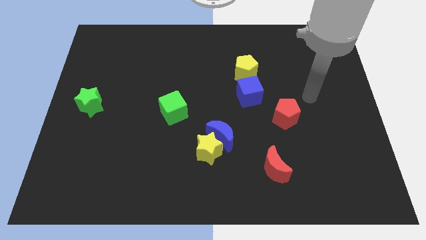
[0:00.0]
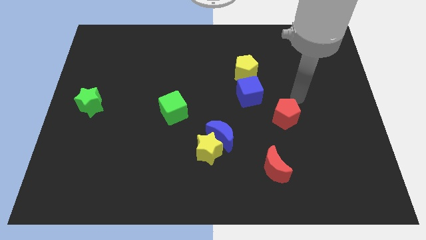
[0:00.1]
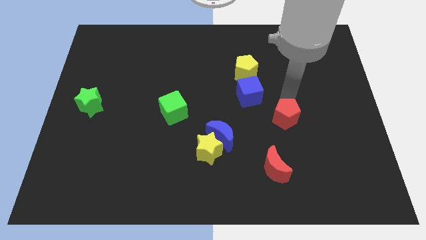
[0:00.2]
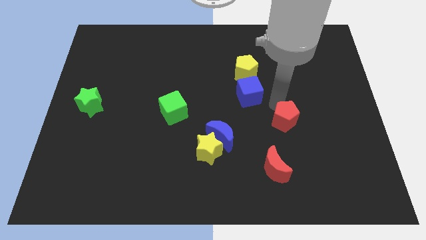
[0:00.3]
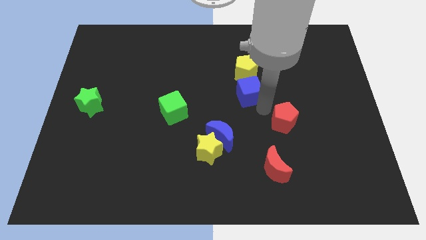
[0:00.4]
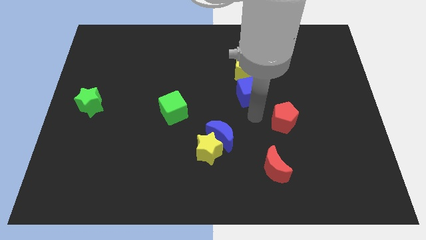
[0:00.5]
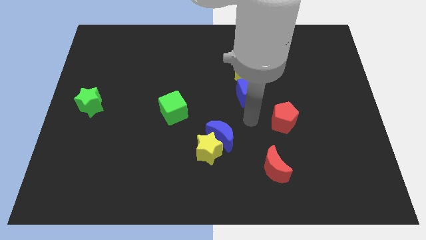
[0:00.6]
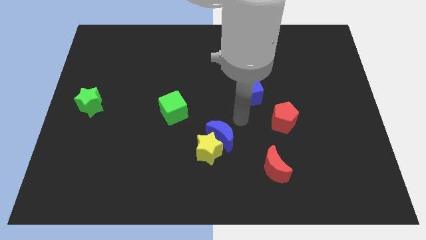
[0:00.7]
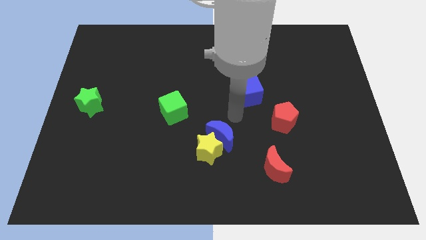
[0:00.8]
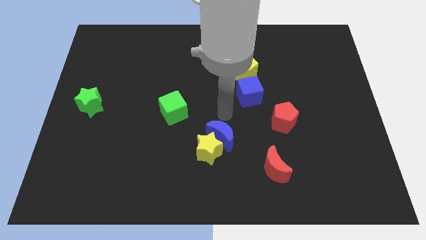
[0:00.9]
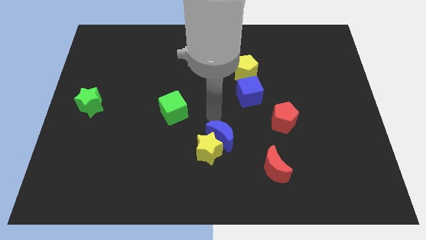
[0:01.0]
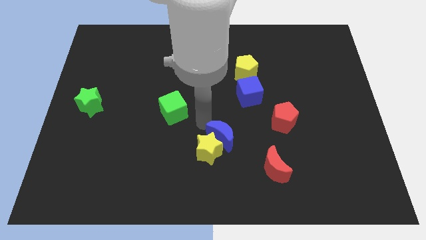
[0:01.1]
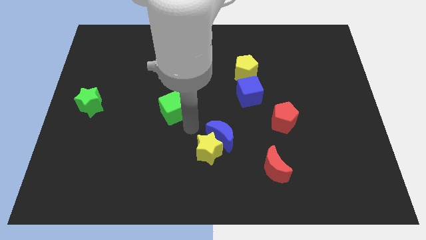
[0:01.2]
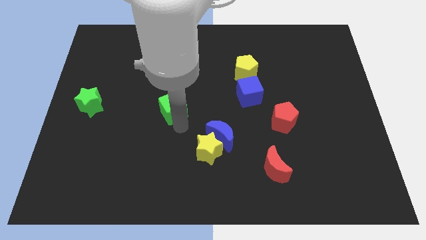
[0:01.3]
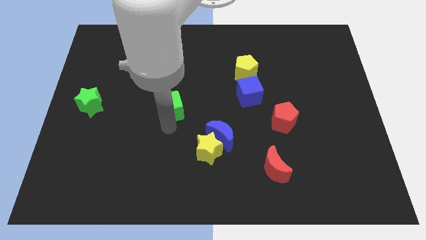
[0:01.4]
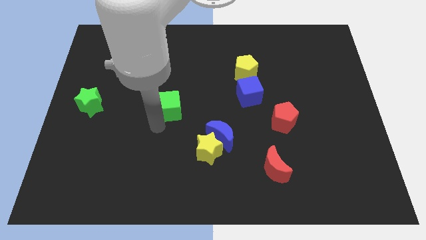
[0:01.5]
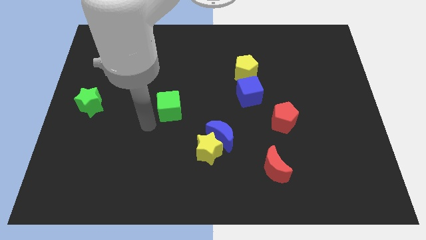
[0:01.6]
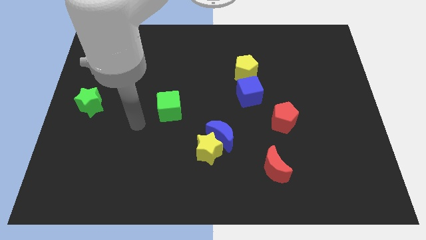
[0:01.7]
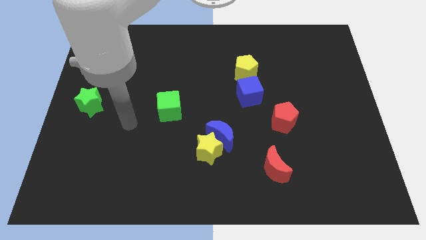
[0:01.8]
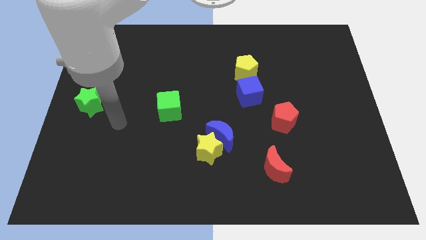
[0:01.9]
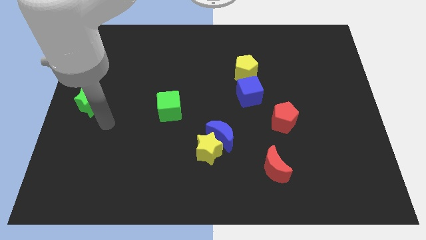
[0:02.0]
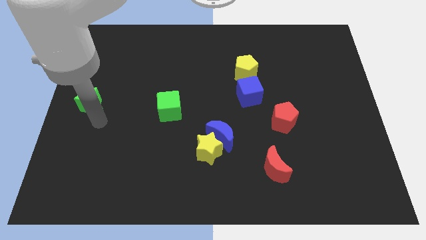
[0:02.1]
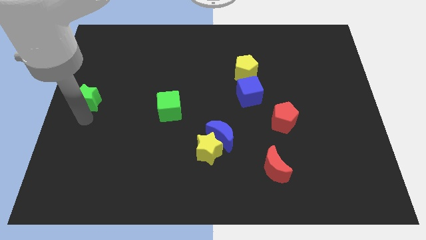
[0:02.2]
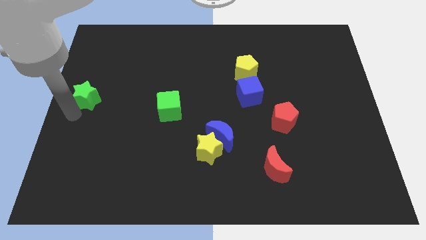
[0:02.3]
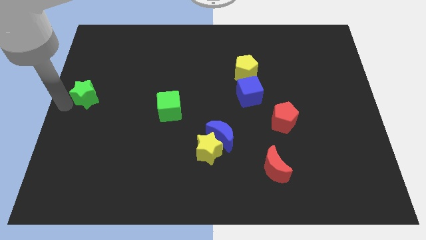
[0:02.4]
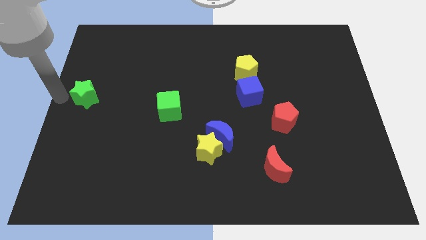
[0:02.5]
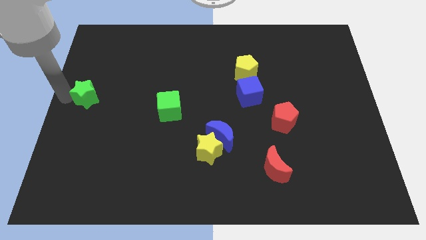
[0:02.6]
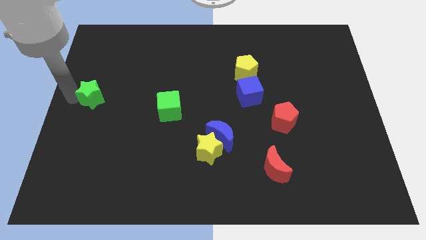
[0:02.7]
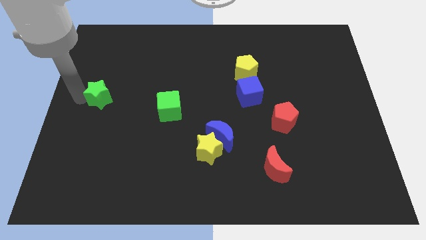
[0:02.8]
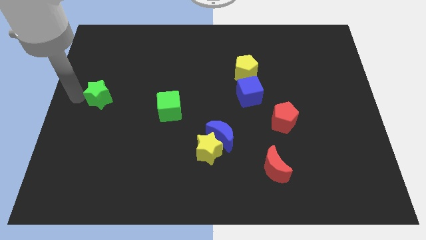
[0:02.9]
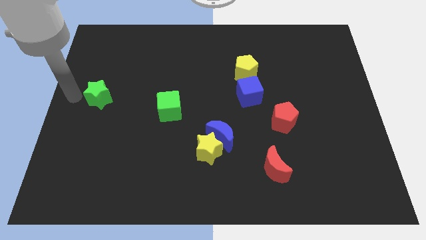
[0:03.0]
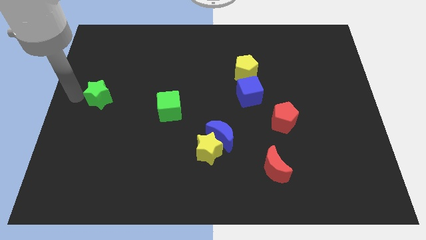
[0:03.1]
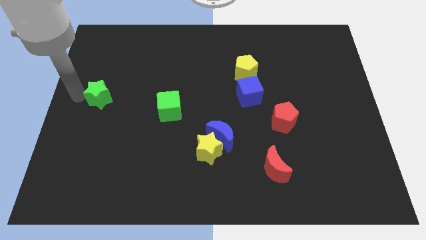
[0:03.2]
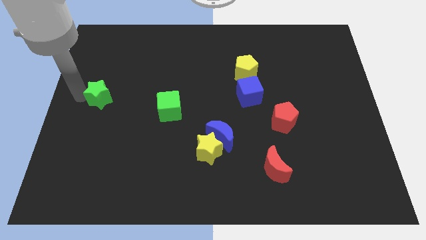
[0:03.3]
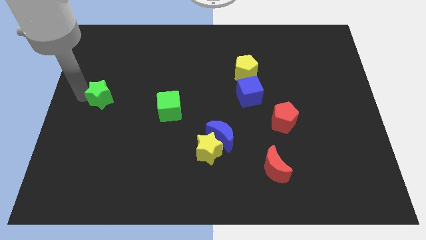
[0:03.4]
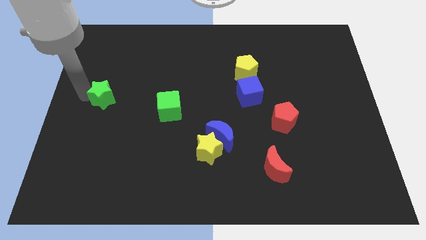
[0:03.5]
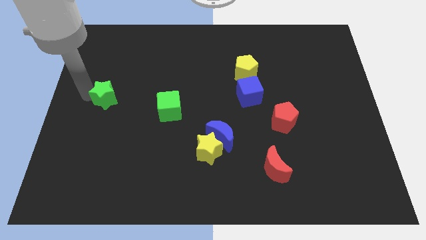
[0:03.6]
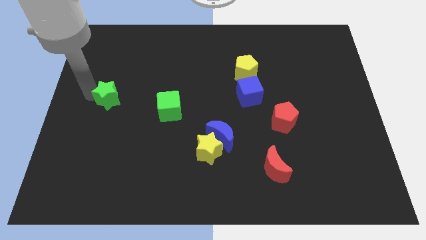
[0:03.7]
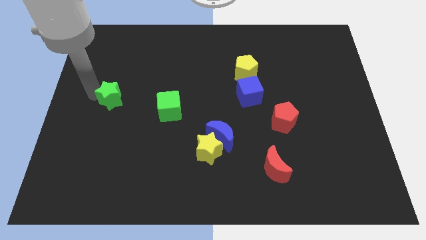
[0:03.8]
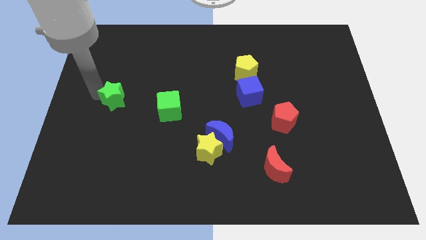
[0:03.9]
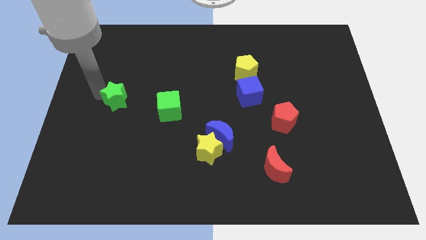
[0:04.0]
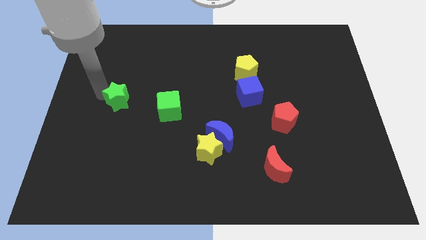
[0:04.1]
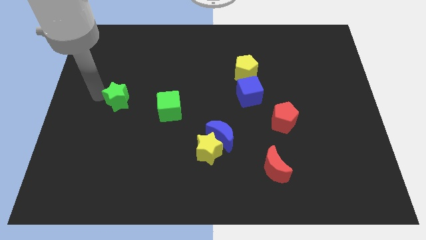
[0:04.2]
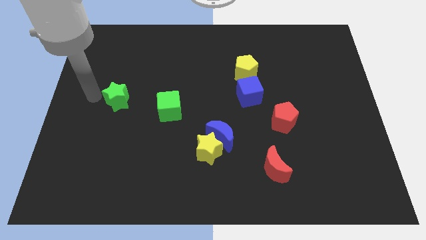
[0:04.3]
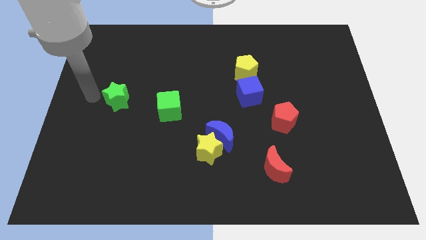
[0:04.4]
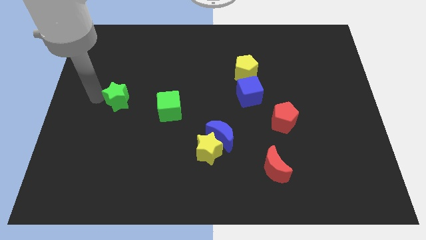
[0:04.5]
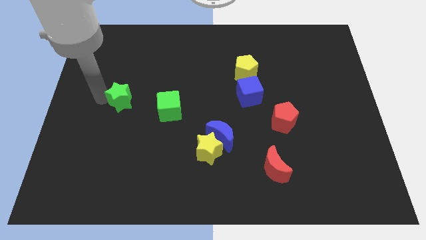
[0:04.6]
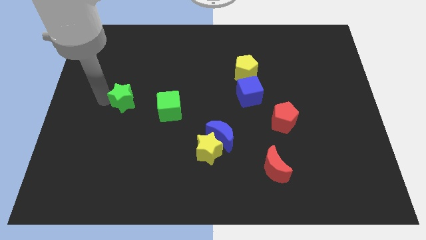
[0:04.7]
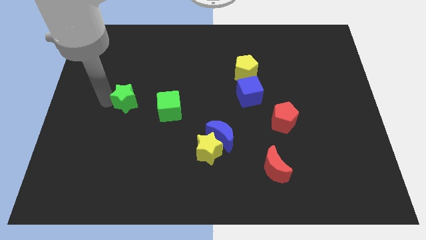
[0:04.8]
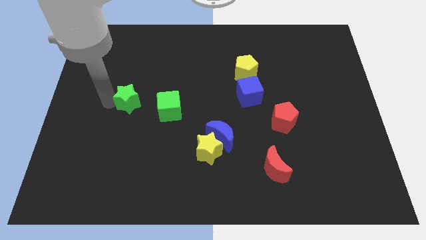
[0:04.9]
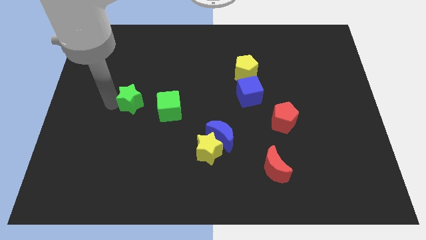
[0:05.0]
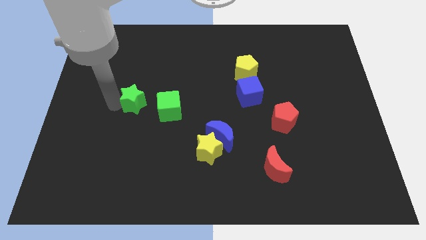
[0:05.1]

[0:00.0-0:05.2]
slide the green star to the top left of the green cube

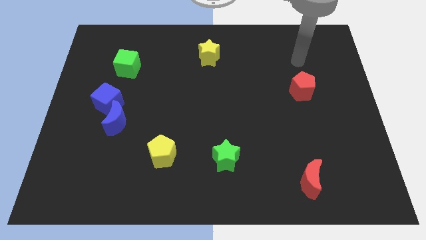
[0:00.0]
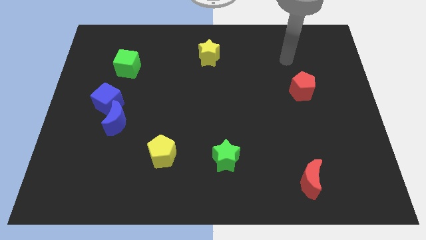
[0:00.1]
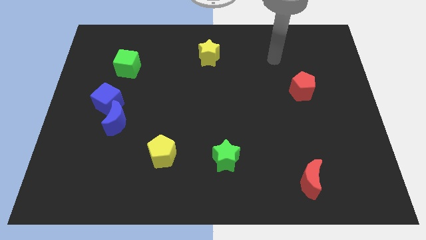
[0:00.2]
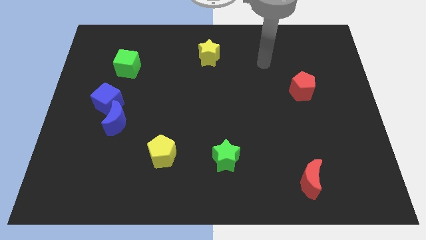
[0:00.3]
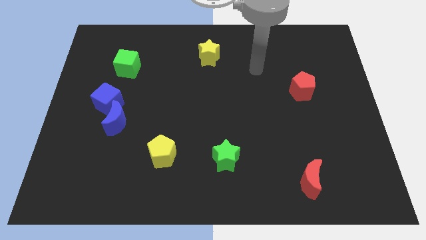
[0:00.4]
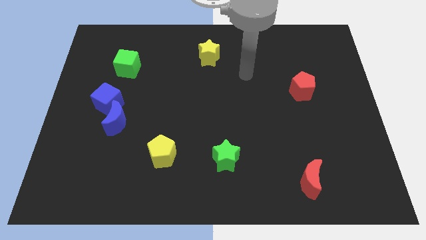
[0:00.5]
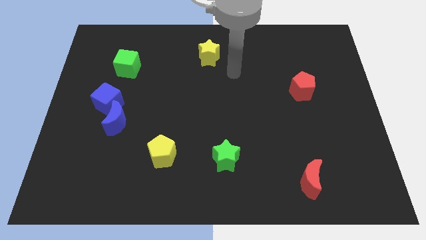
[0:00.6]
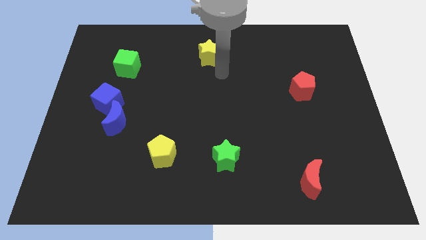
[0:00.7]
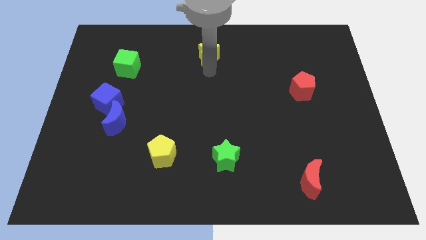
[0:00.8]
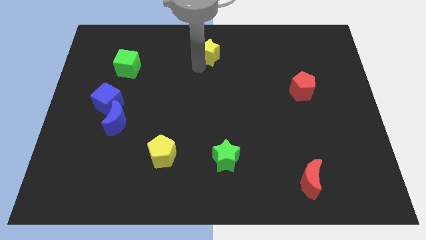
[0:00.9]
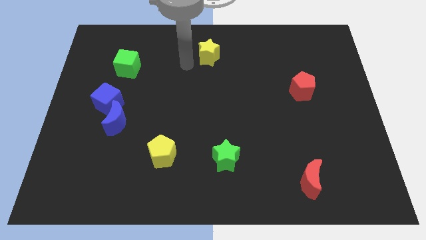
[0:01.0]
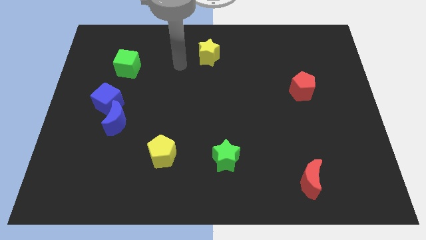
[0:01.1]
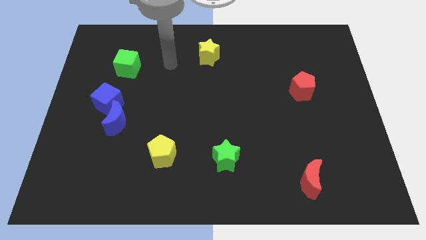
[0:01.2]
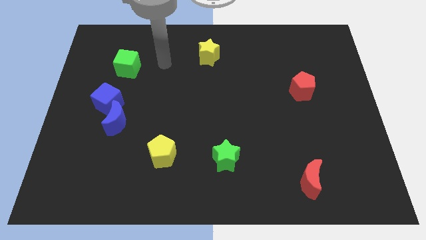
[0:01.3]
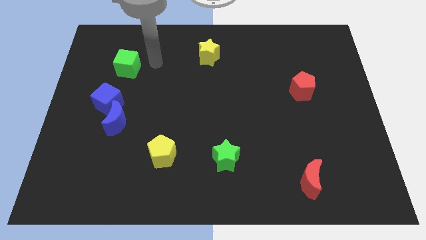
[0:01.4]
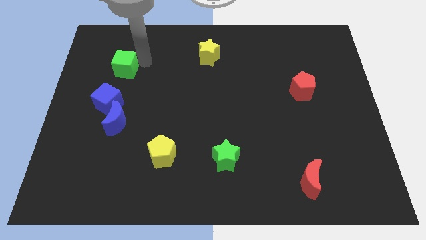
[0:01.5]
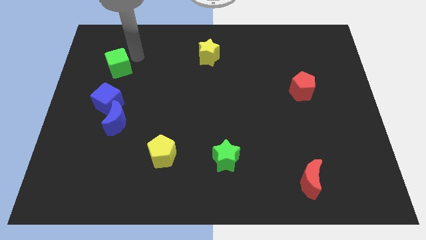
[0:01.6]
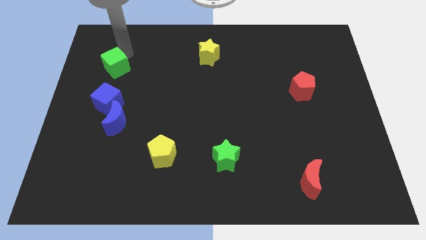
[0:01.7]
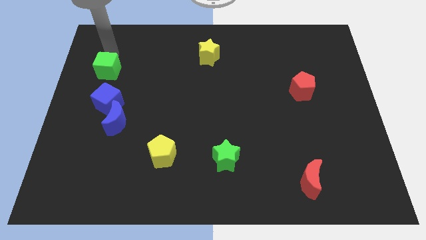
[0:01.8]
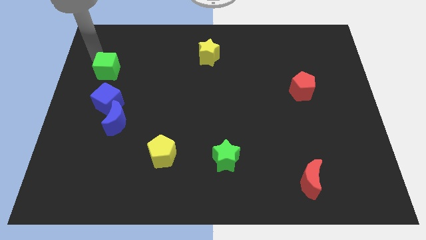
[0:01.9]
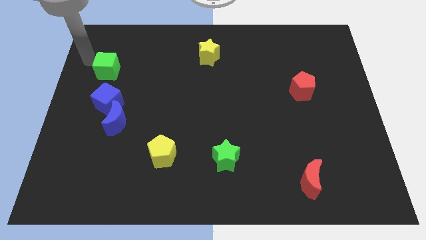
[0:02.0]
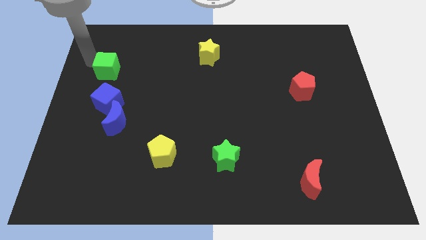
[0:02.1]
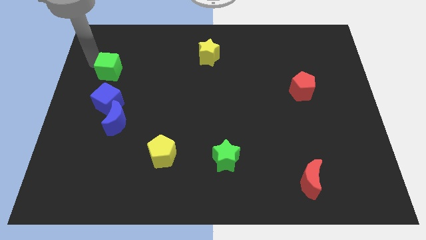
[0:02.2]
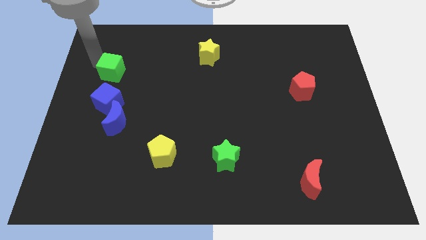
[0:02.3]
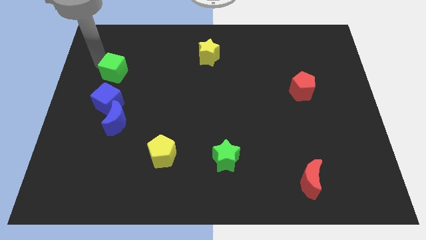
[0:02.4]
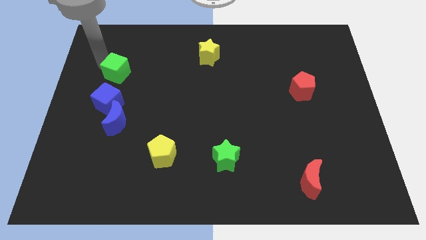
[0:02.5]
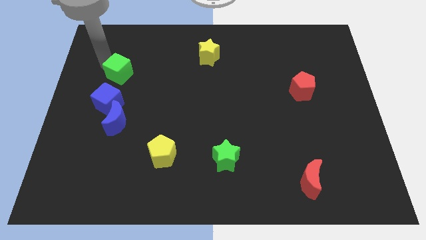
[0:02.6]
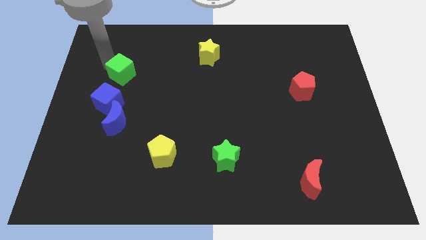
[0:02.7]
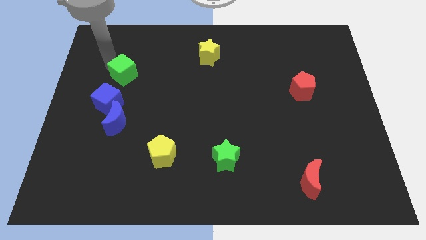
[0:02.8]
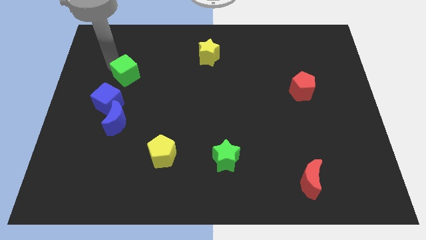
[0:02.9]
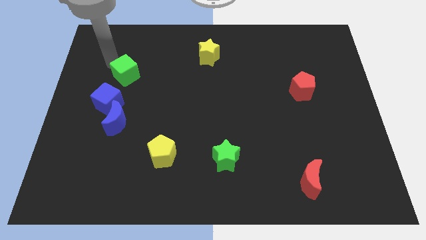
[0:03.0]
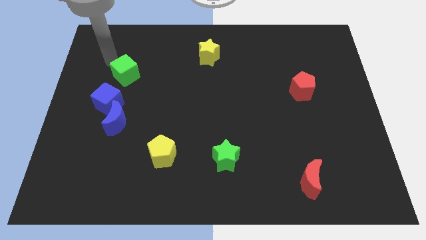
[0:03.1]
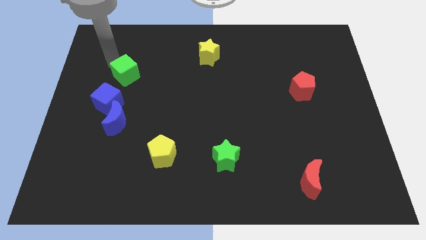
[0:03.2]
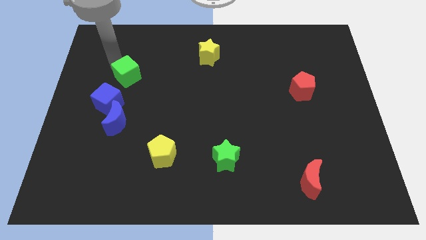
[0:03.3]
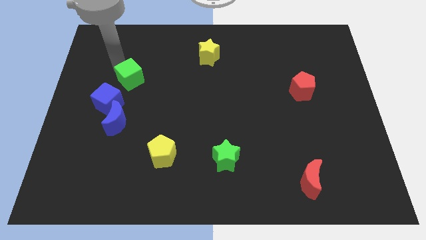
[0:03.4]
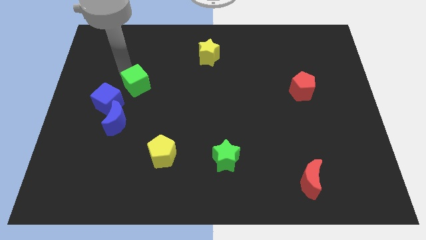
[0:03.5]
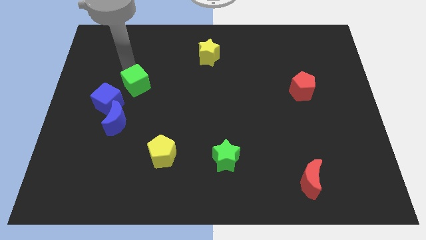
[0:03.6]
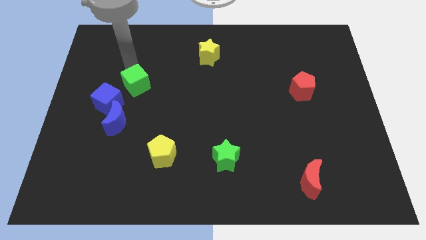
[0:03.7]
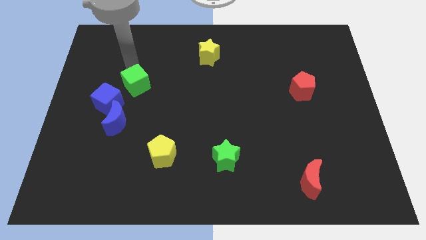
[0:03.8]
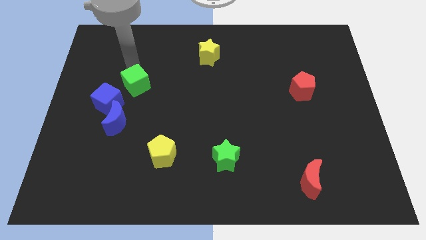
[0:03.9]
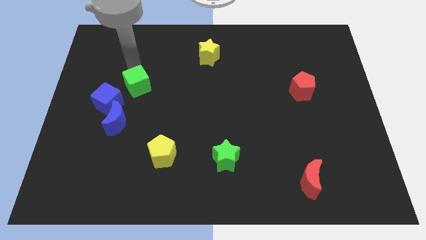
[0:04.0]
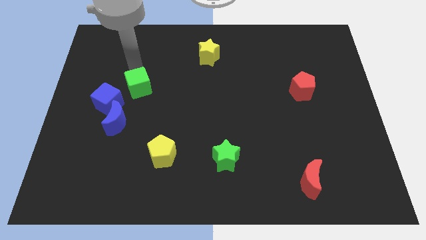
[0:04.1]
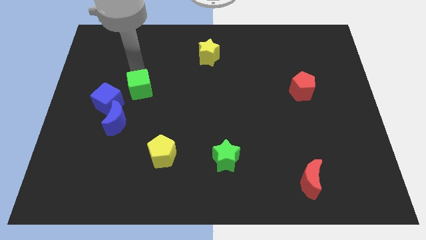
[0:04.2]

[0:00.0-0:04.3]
move the green cube diagonally up and to the right of the blue moon
